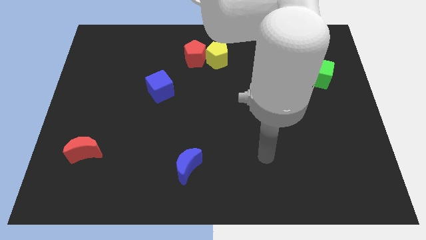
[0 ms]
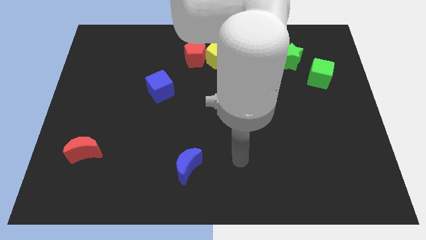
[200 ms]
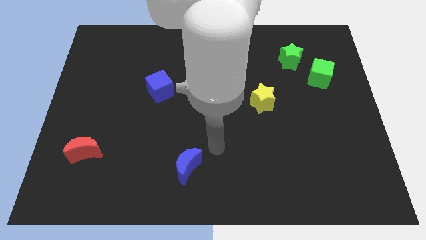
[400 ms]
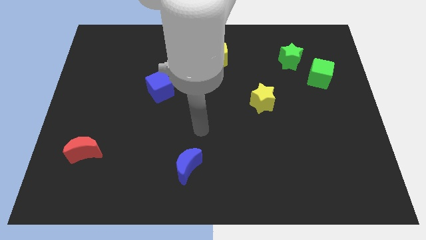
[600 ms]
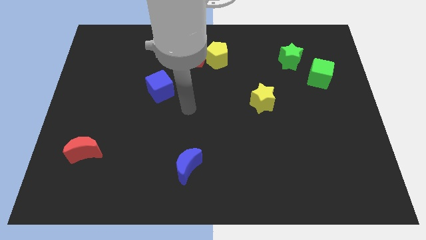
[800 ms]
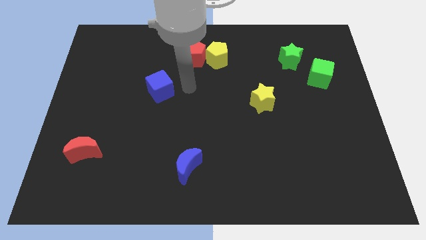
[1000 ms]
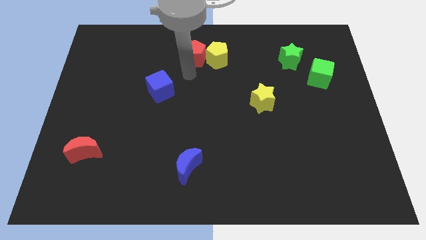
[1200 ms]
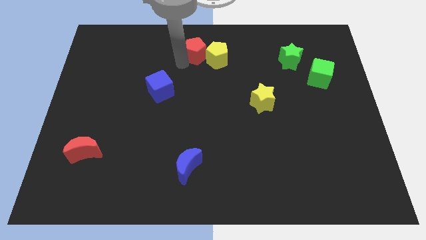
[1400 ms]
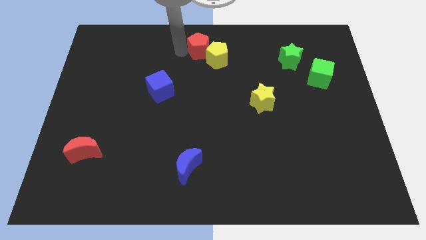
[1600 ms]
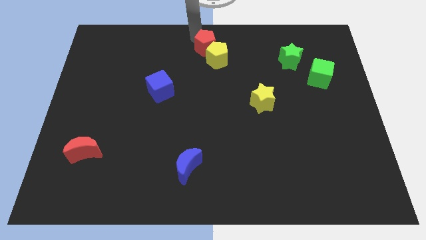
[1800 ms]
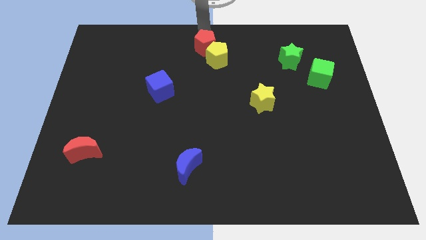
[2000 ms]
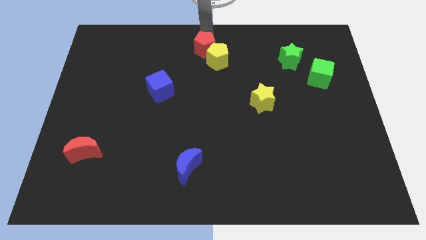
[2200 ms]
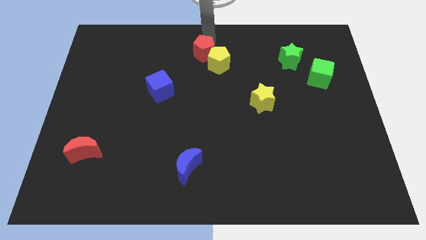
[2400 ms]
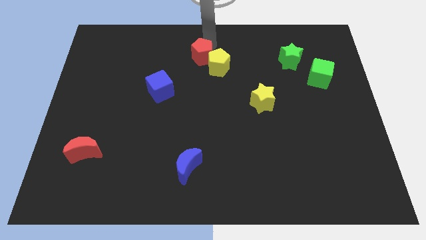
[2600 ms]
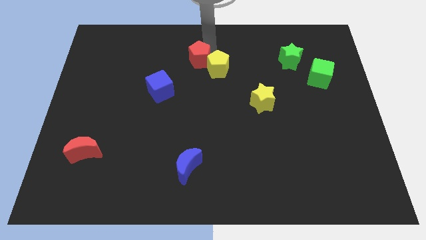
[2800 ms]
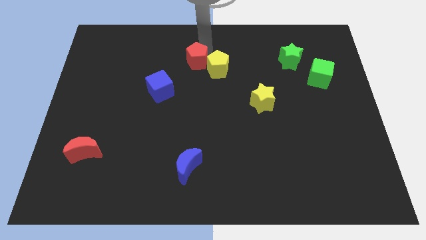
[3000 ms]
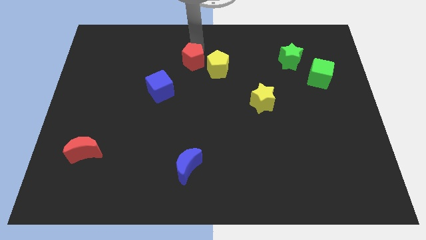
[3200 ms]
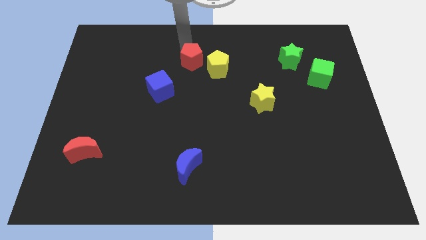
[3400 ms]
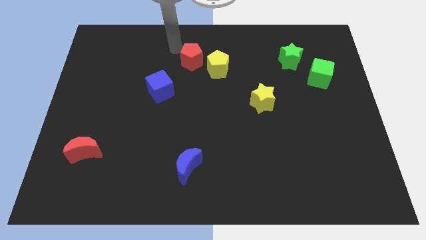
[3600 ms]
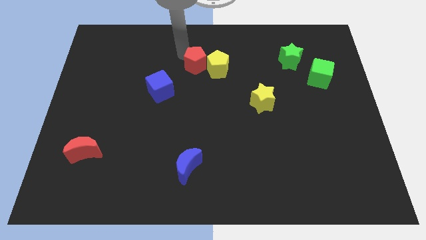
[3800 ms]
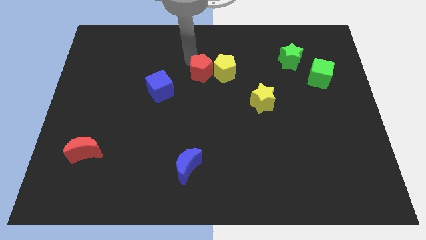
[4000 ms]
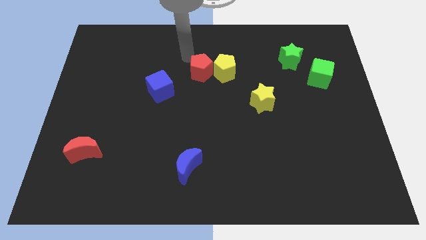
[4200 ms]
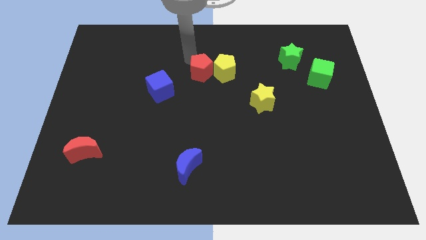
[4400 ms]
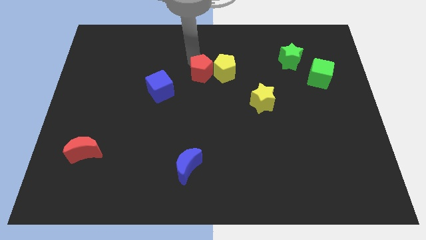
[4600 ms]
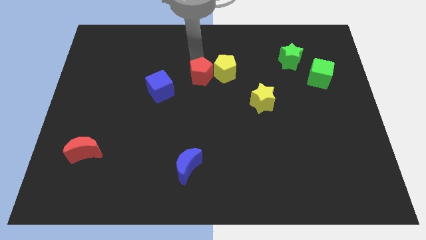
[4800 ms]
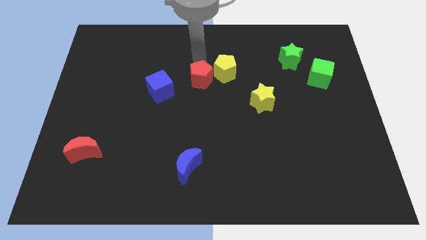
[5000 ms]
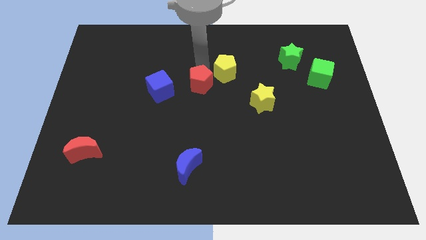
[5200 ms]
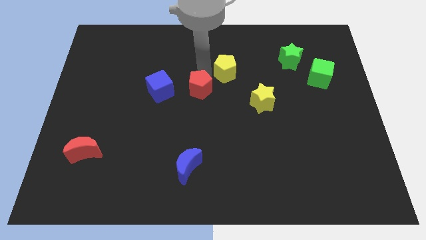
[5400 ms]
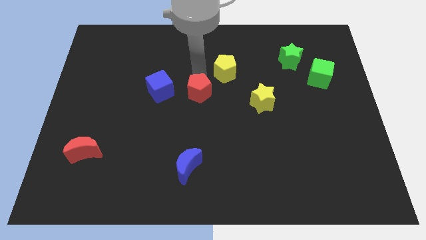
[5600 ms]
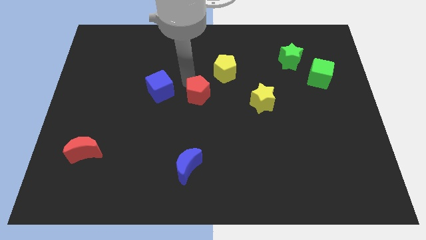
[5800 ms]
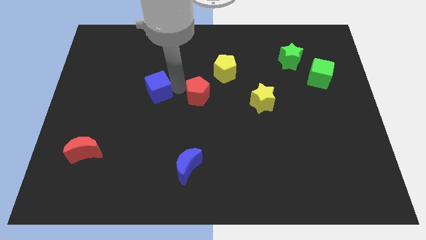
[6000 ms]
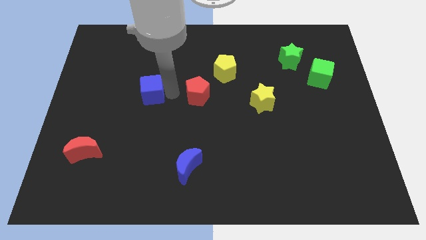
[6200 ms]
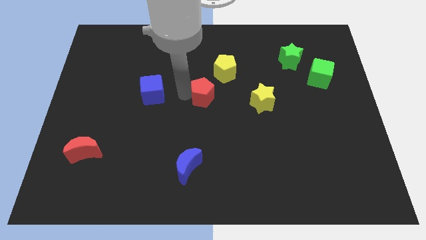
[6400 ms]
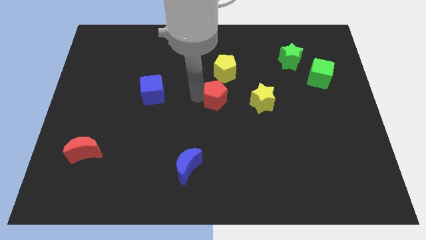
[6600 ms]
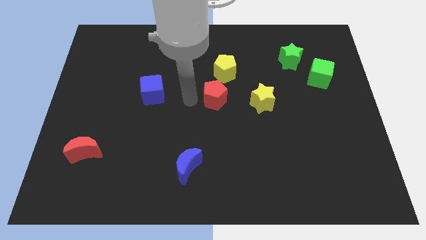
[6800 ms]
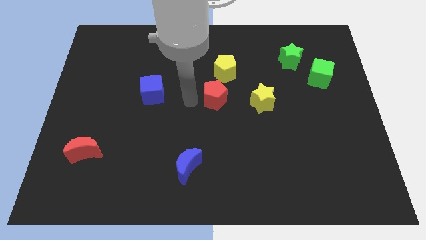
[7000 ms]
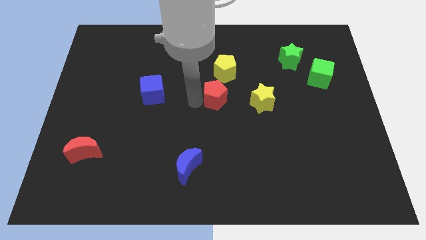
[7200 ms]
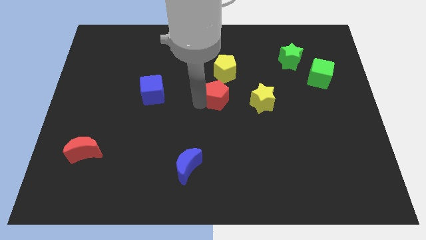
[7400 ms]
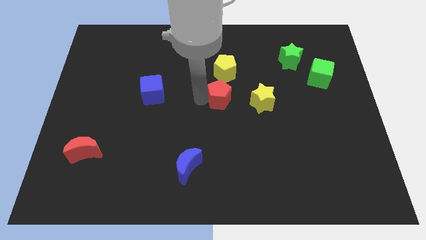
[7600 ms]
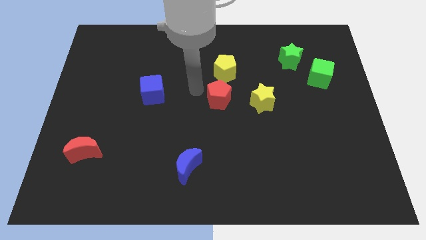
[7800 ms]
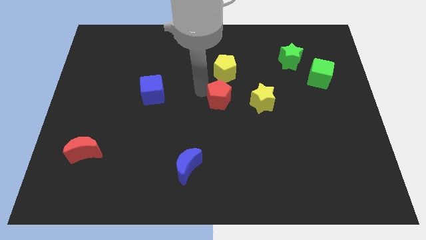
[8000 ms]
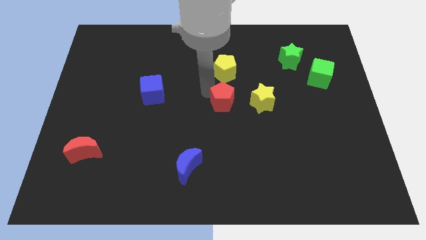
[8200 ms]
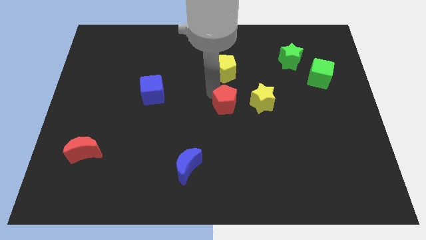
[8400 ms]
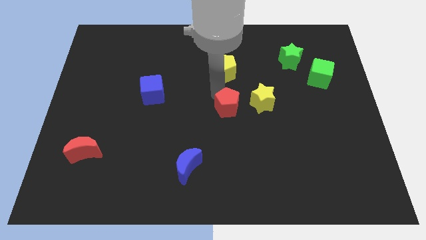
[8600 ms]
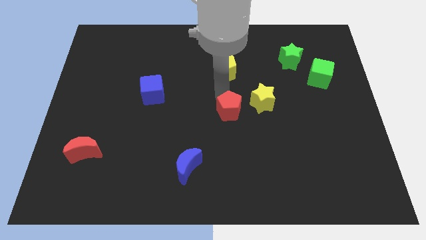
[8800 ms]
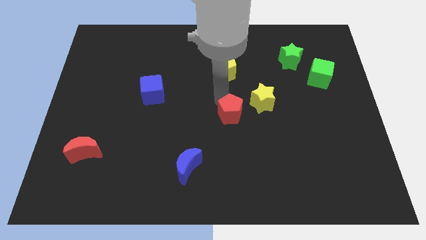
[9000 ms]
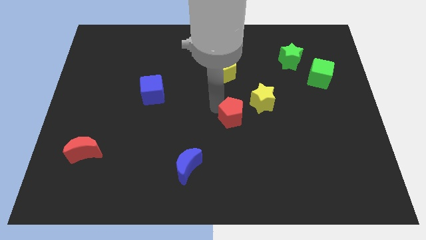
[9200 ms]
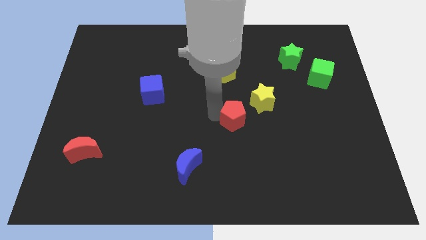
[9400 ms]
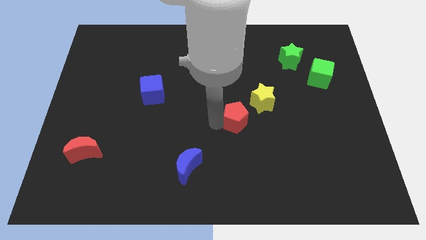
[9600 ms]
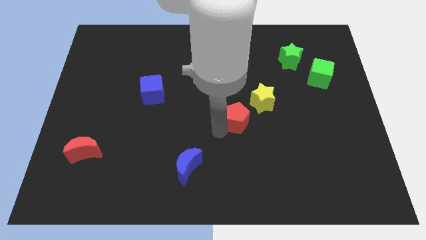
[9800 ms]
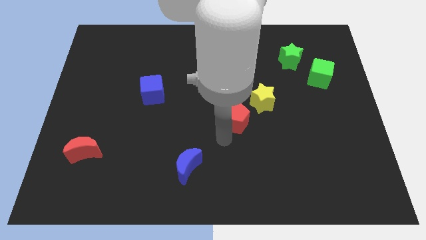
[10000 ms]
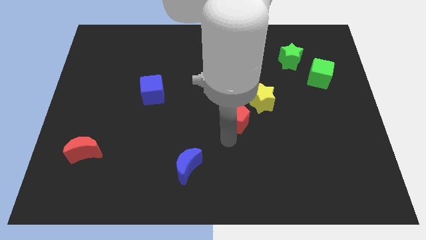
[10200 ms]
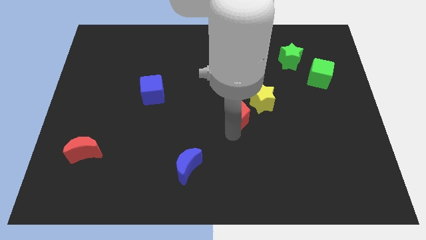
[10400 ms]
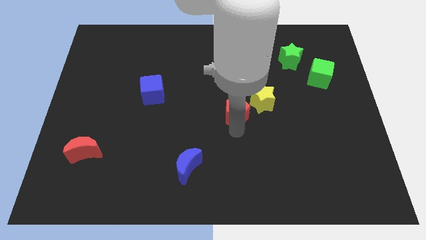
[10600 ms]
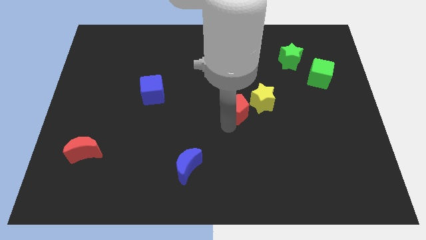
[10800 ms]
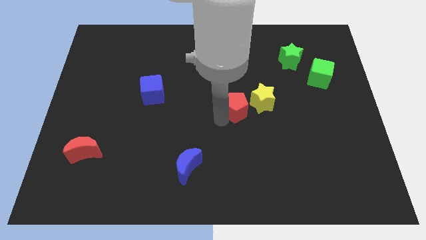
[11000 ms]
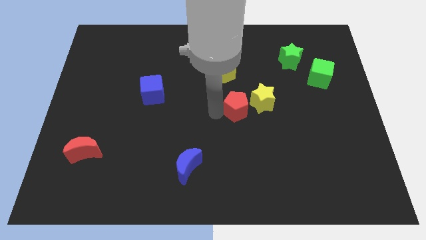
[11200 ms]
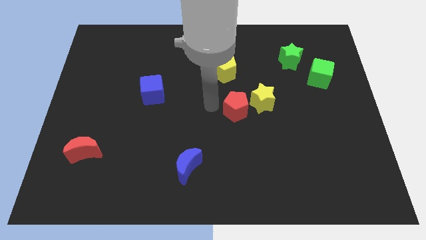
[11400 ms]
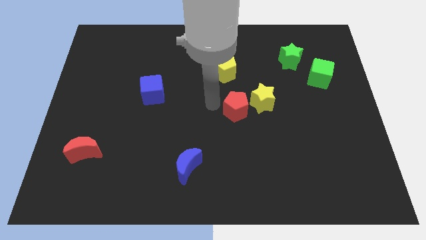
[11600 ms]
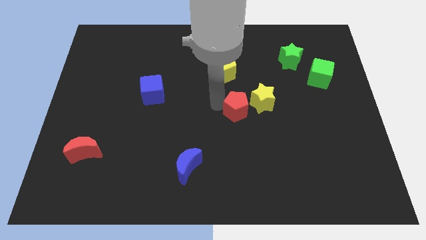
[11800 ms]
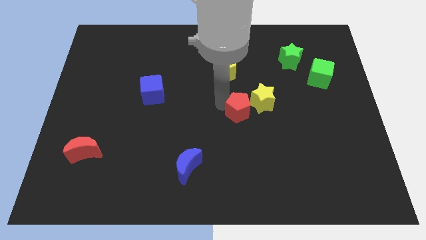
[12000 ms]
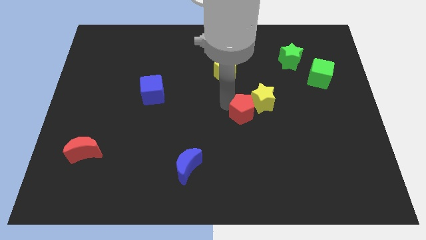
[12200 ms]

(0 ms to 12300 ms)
move the red pentagon diagonally down and to the right

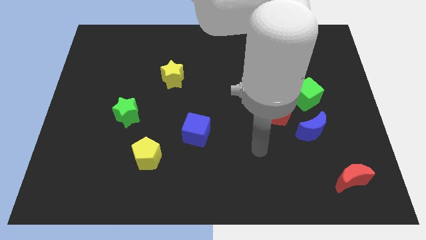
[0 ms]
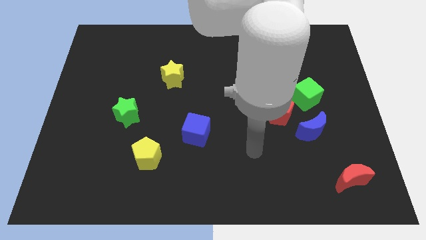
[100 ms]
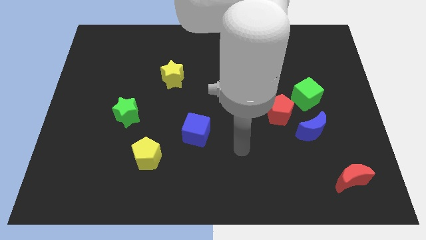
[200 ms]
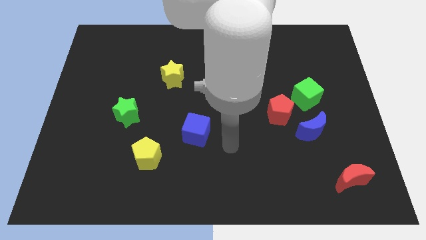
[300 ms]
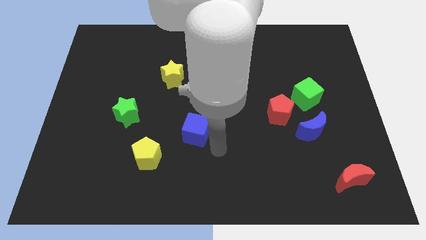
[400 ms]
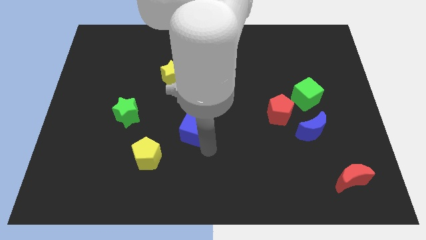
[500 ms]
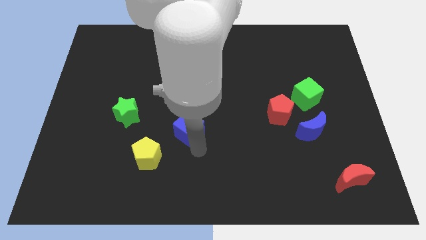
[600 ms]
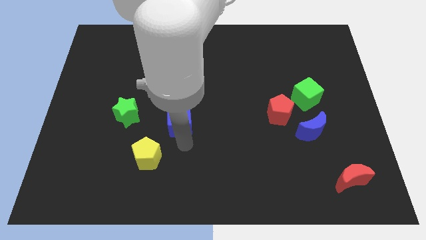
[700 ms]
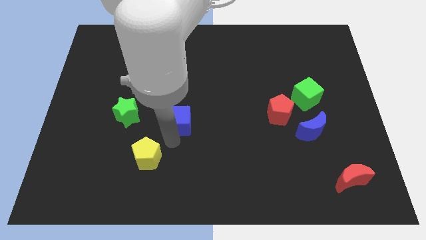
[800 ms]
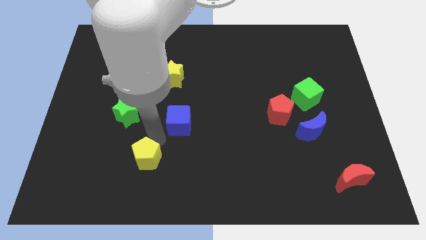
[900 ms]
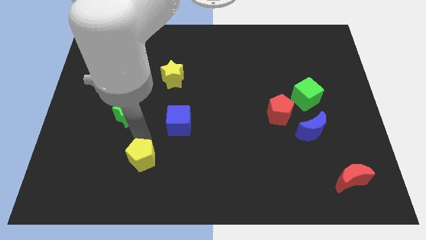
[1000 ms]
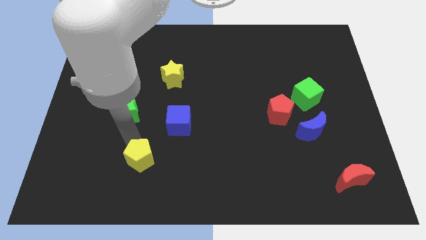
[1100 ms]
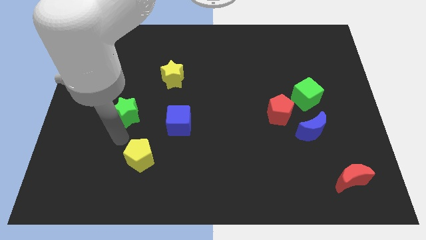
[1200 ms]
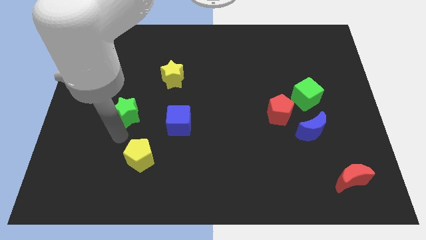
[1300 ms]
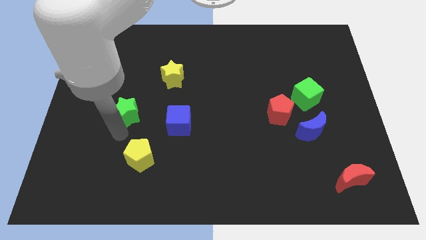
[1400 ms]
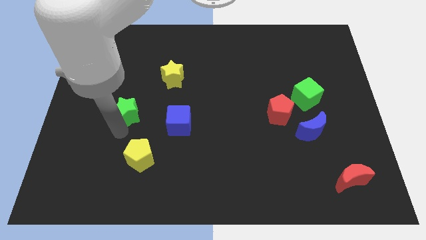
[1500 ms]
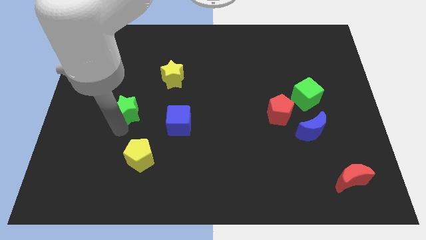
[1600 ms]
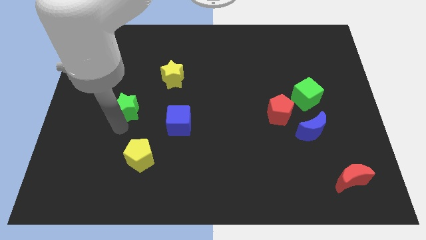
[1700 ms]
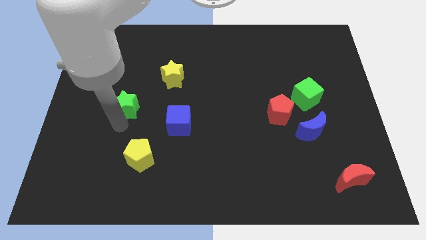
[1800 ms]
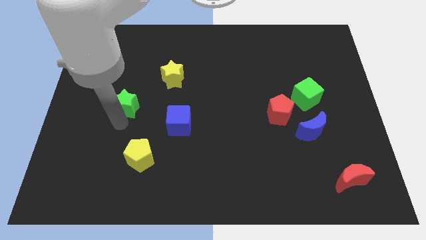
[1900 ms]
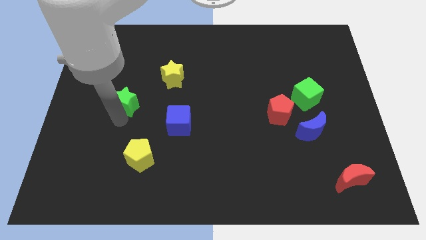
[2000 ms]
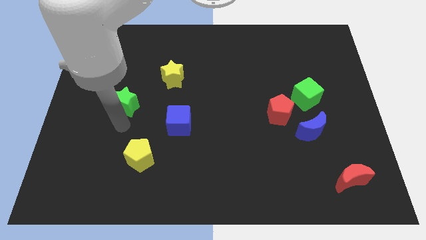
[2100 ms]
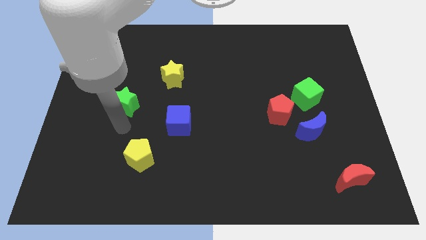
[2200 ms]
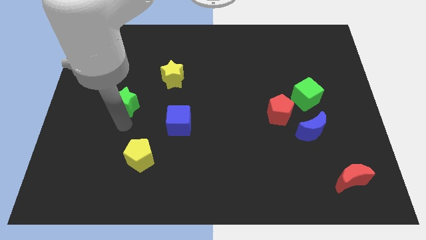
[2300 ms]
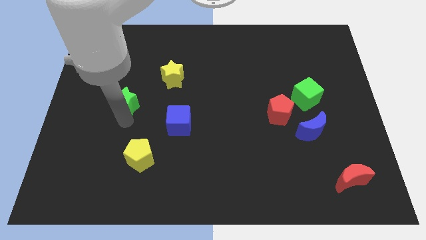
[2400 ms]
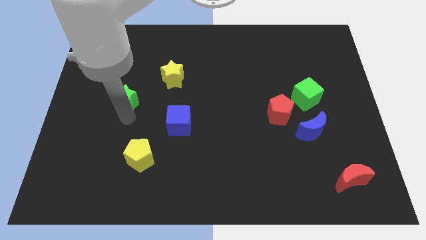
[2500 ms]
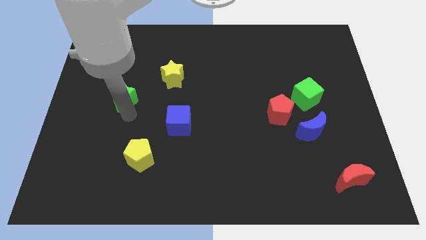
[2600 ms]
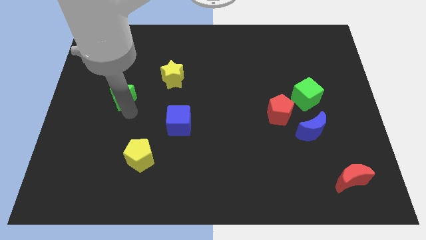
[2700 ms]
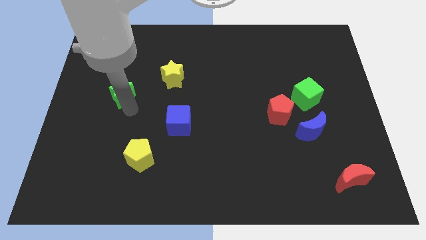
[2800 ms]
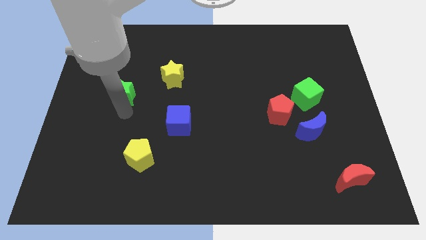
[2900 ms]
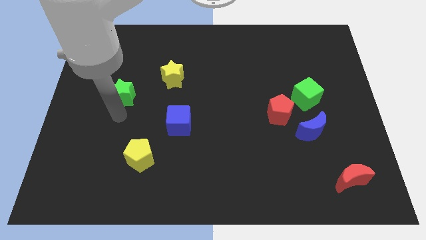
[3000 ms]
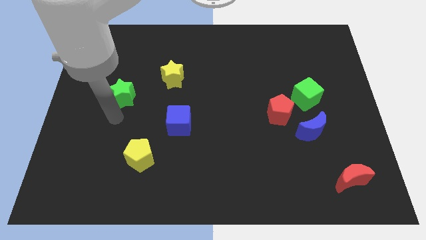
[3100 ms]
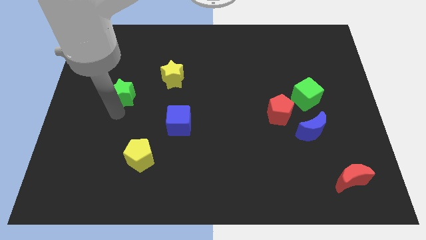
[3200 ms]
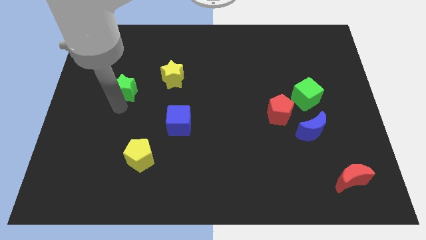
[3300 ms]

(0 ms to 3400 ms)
slightly push the green star upwards
